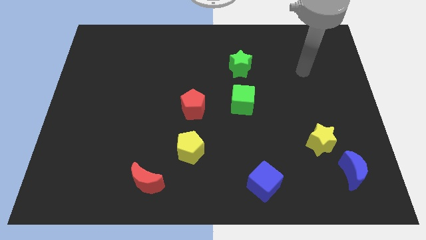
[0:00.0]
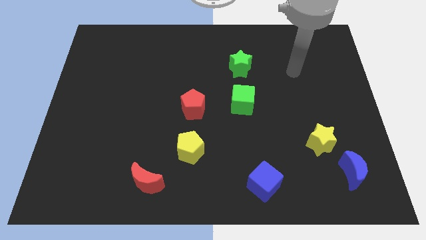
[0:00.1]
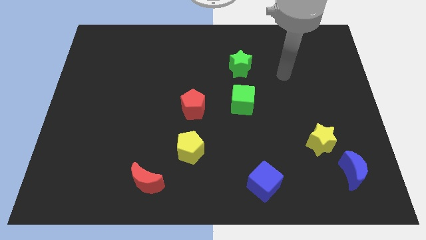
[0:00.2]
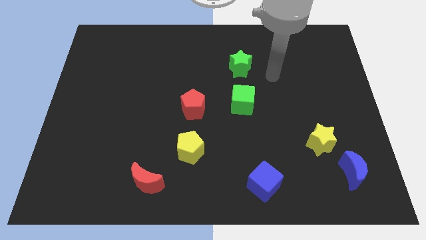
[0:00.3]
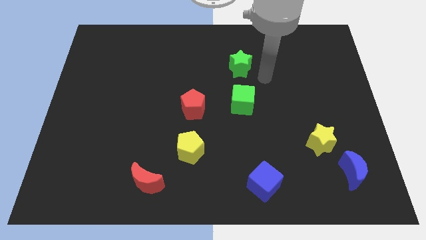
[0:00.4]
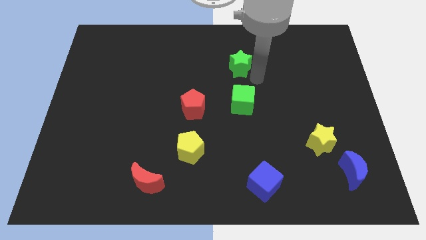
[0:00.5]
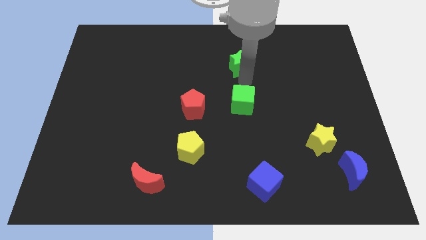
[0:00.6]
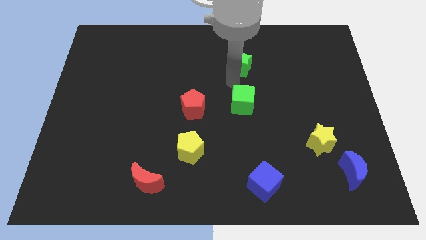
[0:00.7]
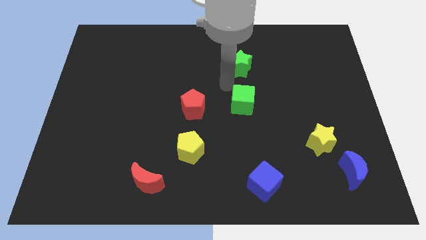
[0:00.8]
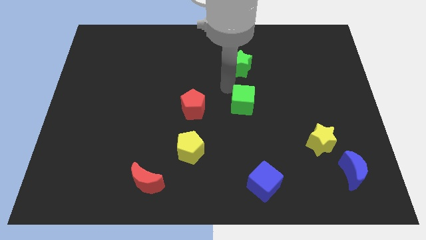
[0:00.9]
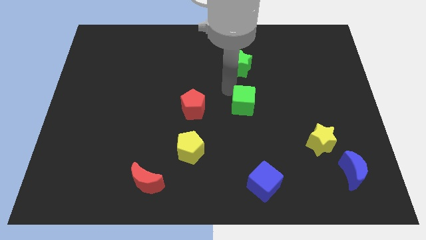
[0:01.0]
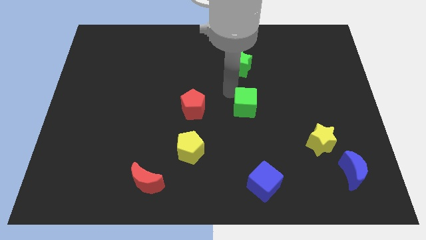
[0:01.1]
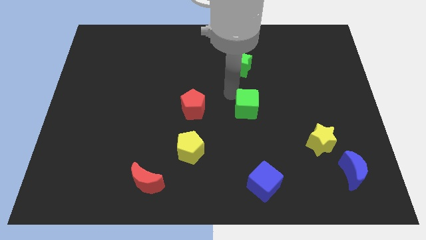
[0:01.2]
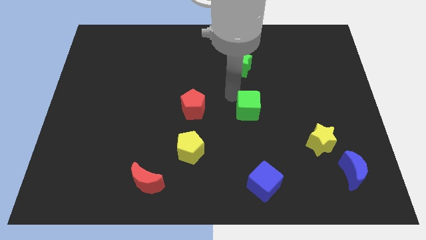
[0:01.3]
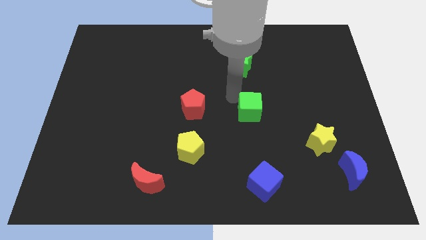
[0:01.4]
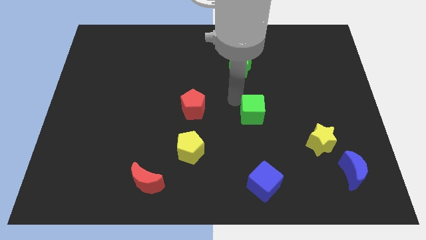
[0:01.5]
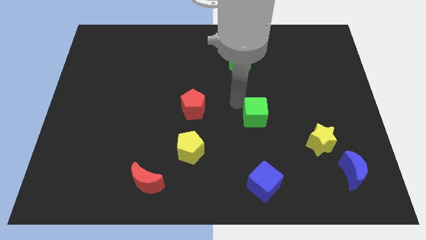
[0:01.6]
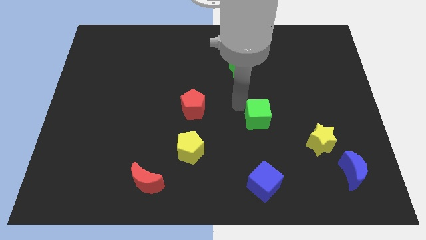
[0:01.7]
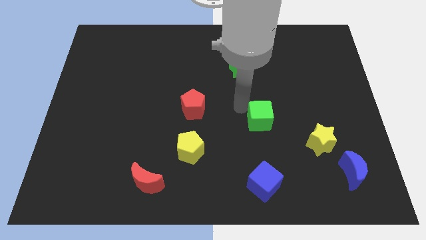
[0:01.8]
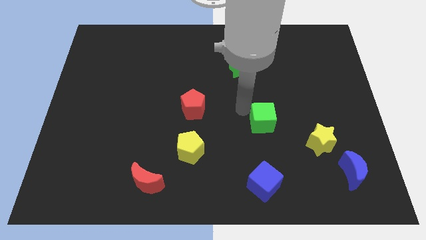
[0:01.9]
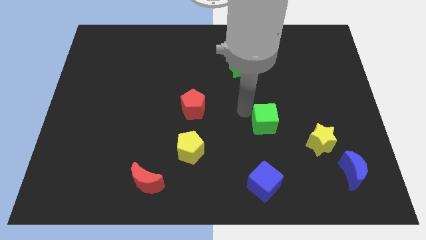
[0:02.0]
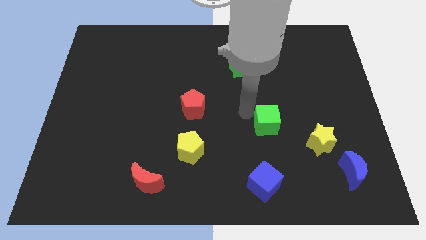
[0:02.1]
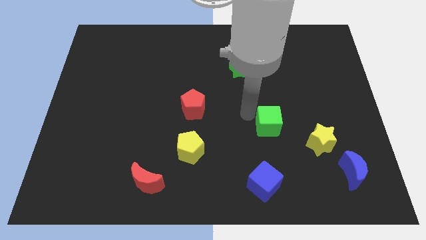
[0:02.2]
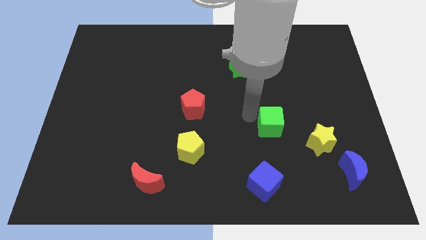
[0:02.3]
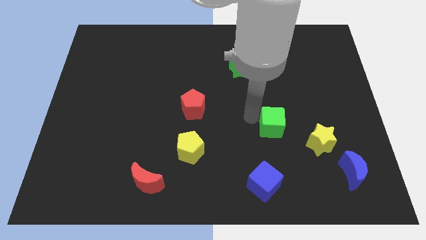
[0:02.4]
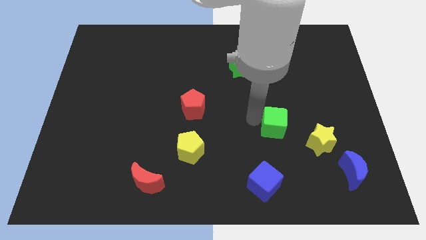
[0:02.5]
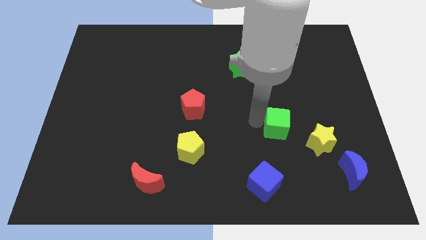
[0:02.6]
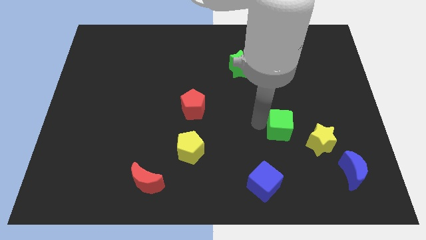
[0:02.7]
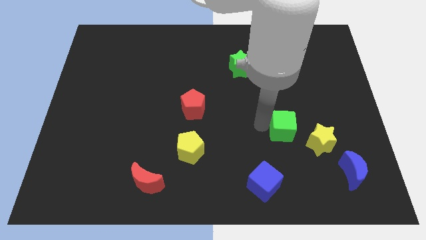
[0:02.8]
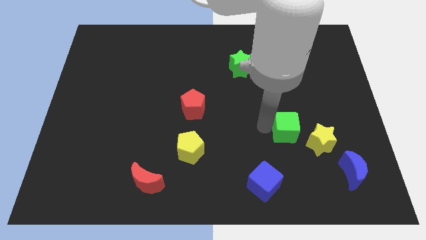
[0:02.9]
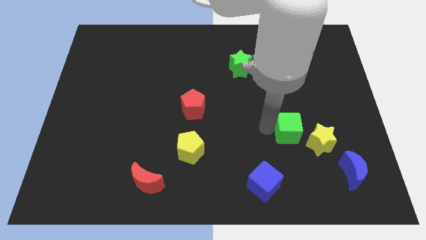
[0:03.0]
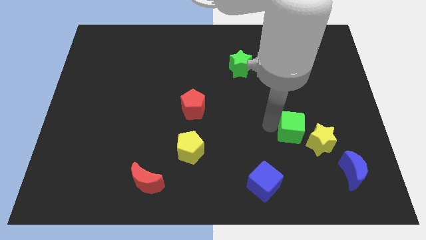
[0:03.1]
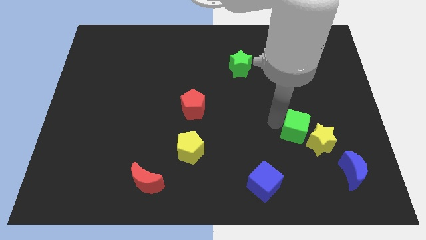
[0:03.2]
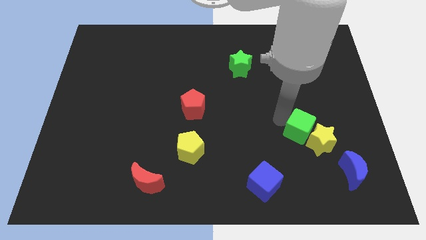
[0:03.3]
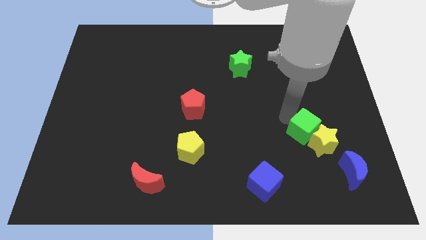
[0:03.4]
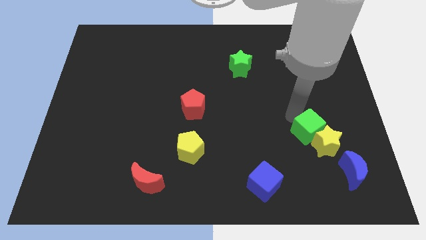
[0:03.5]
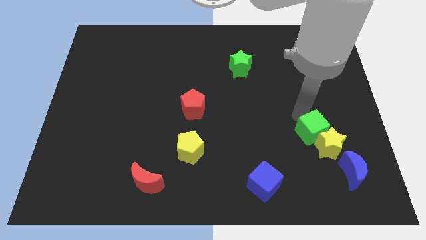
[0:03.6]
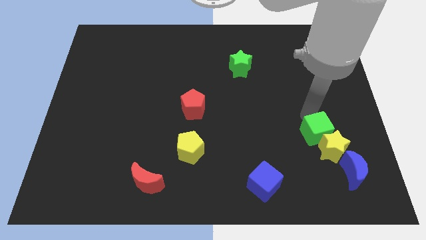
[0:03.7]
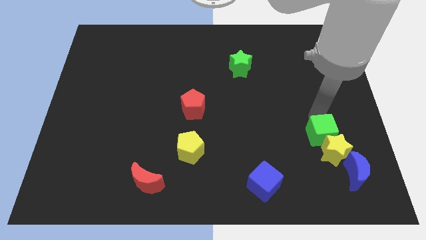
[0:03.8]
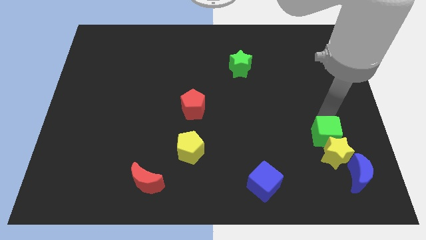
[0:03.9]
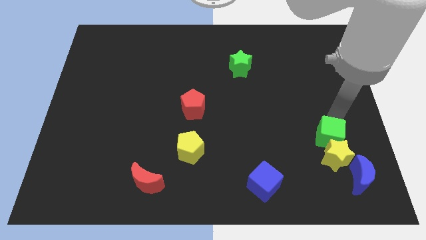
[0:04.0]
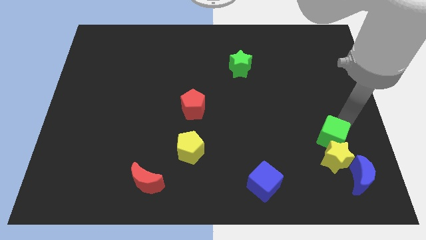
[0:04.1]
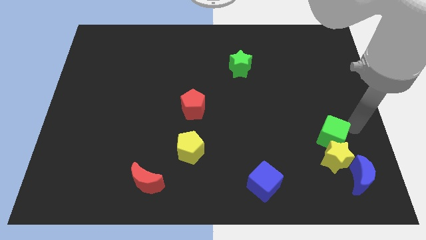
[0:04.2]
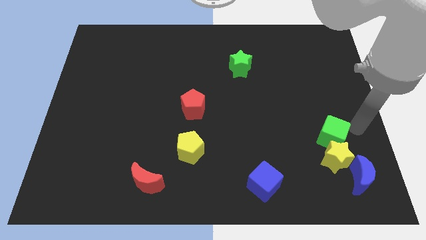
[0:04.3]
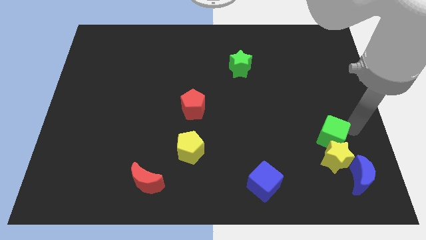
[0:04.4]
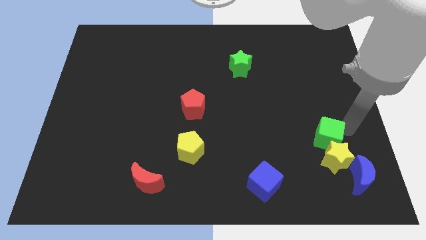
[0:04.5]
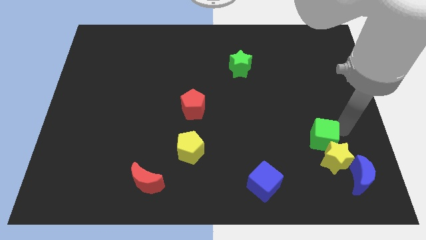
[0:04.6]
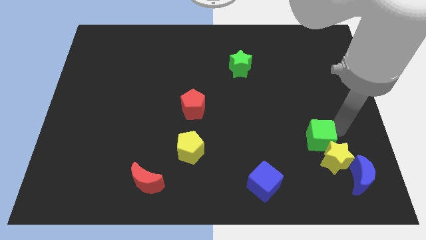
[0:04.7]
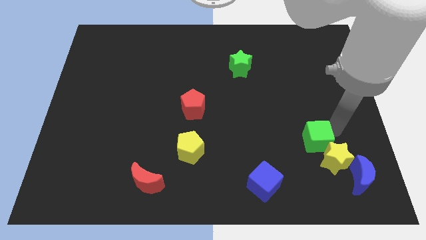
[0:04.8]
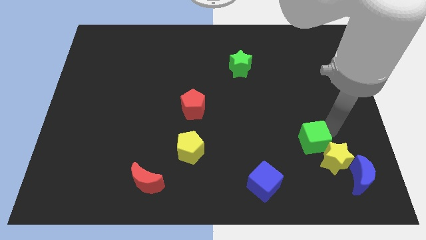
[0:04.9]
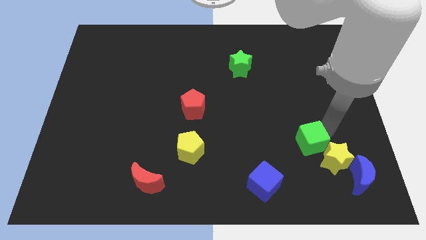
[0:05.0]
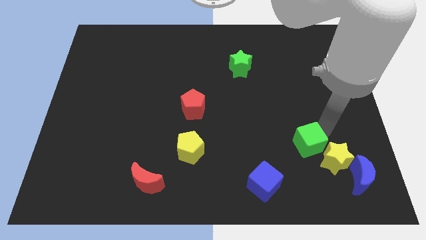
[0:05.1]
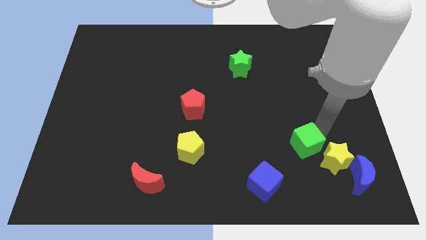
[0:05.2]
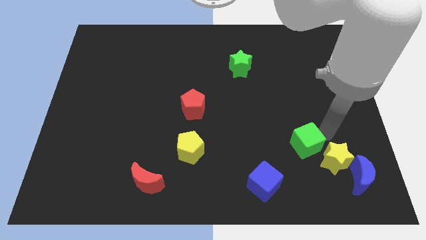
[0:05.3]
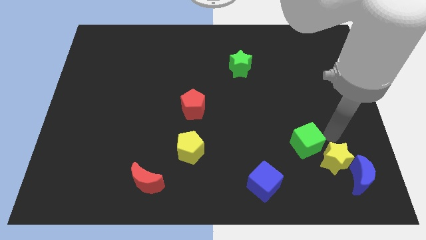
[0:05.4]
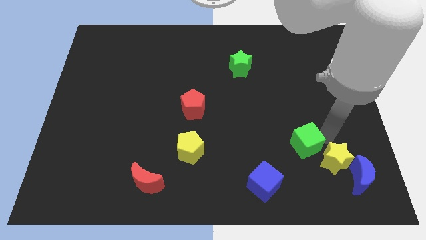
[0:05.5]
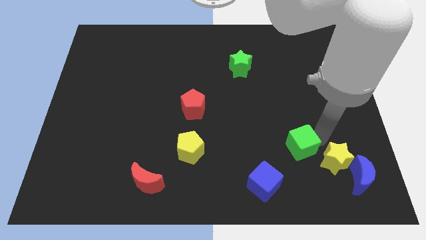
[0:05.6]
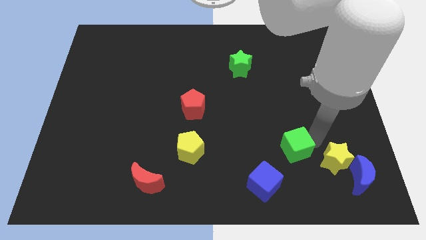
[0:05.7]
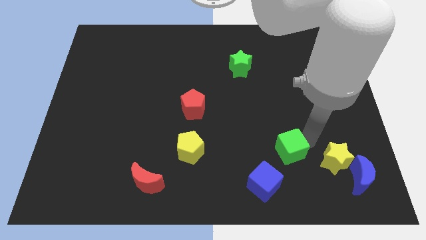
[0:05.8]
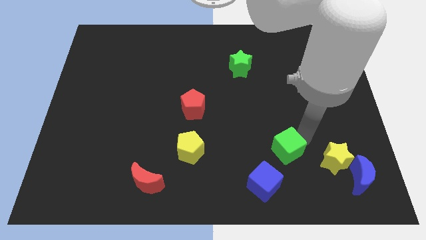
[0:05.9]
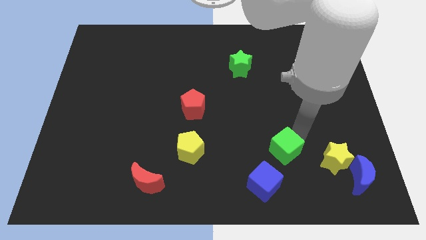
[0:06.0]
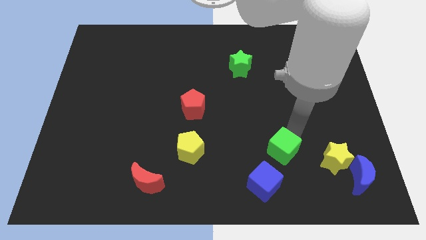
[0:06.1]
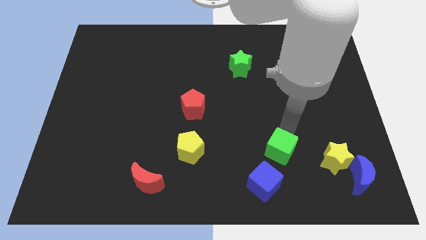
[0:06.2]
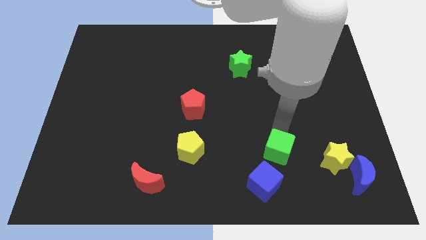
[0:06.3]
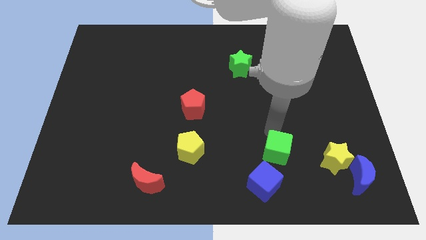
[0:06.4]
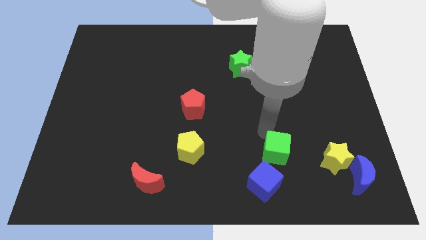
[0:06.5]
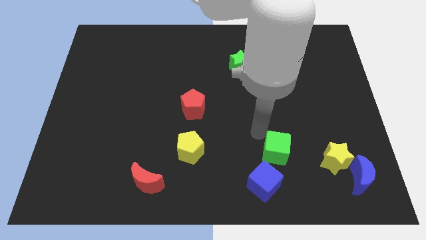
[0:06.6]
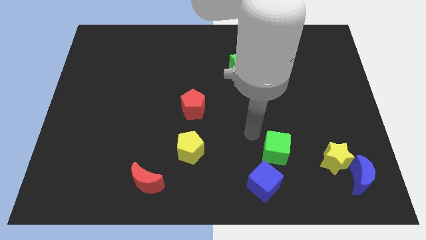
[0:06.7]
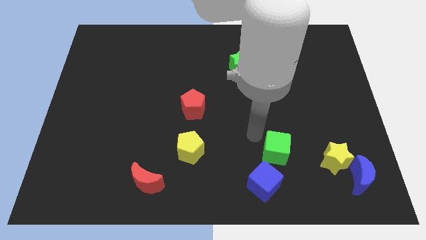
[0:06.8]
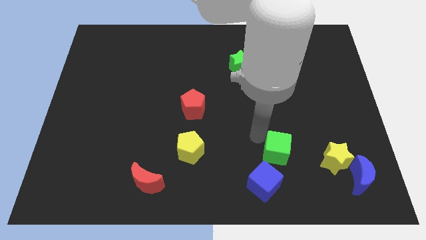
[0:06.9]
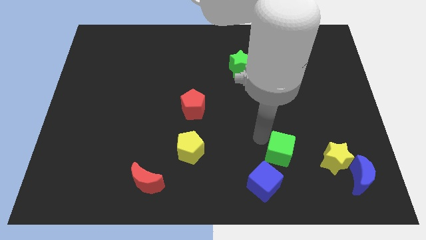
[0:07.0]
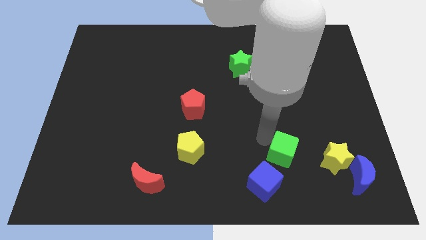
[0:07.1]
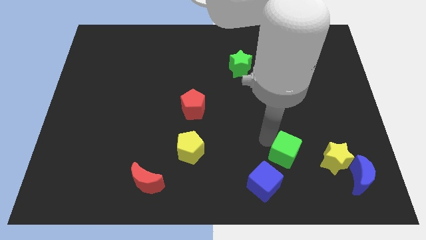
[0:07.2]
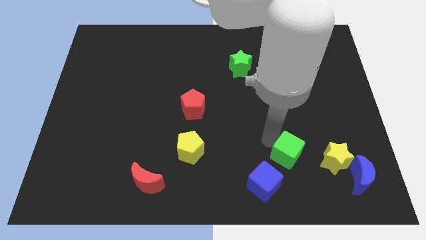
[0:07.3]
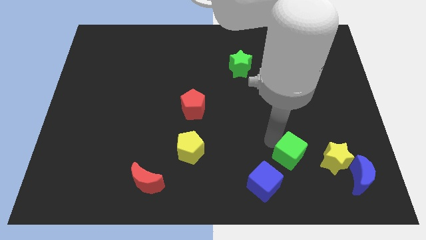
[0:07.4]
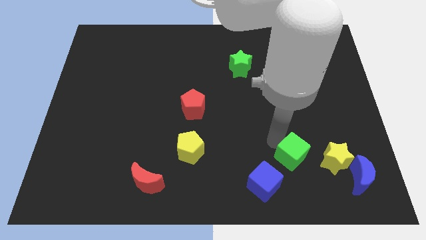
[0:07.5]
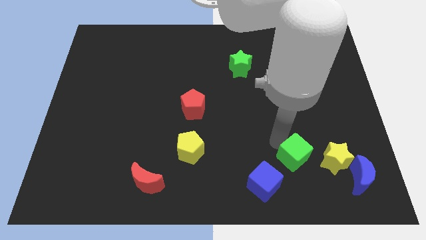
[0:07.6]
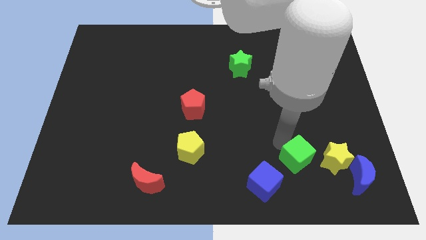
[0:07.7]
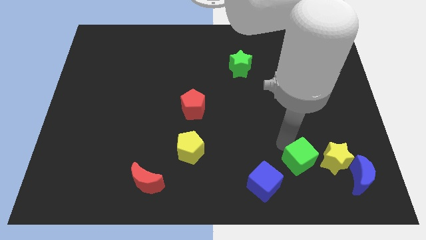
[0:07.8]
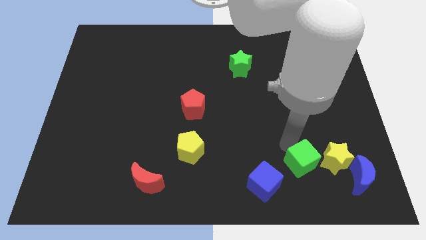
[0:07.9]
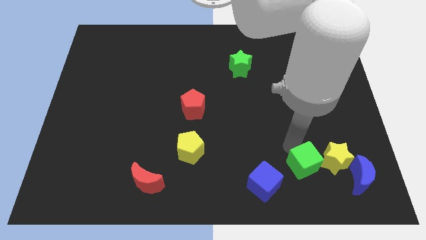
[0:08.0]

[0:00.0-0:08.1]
push the green cube to the right side of the blue cube
